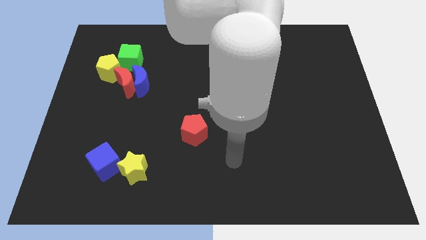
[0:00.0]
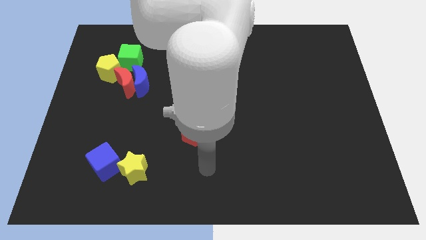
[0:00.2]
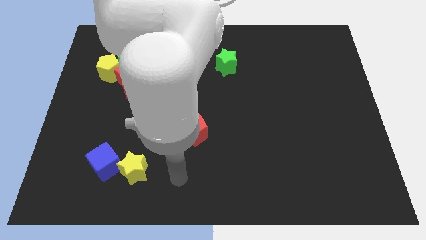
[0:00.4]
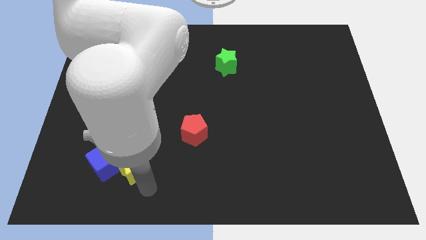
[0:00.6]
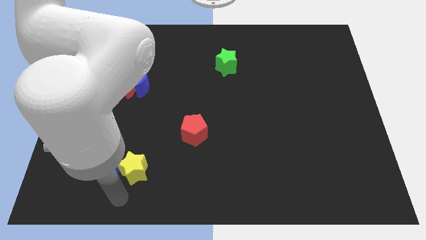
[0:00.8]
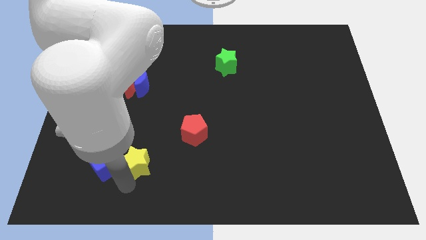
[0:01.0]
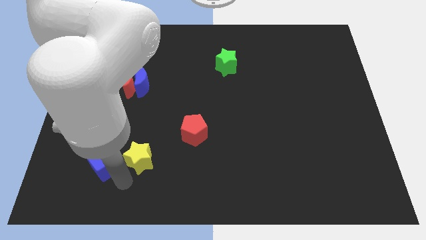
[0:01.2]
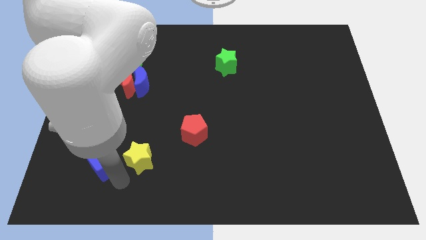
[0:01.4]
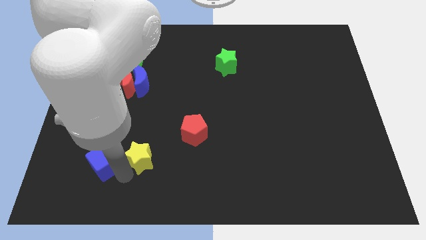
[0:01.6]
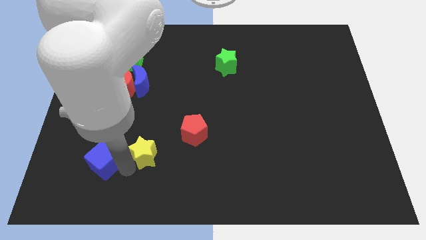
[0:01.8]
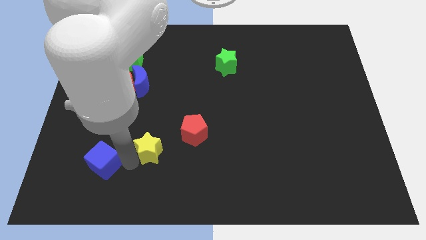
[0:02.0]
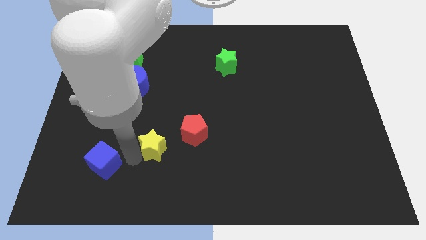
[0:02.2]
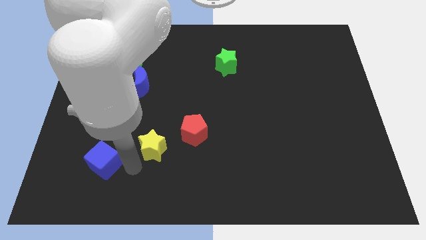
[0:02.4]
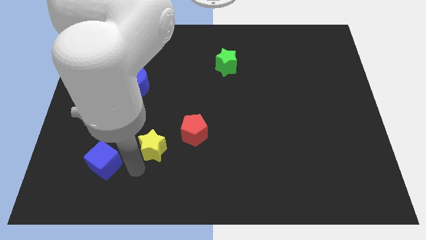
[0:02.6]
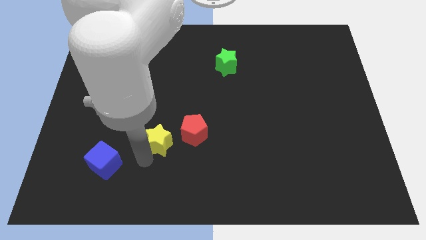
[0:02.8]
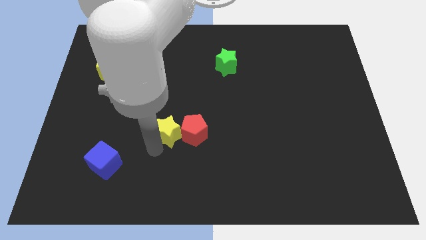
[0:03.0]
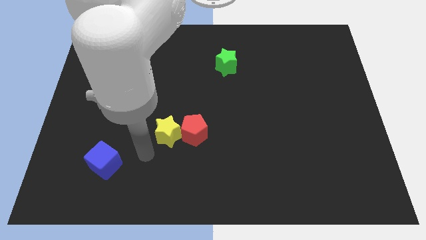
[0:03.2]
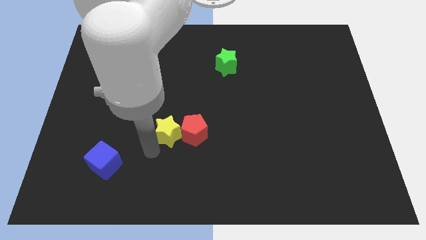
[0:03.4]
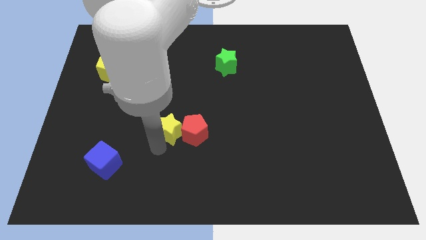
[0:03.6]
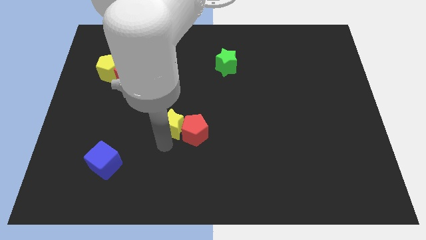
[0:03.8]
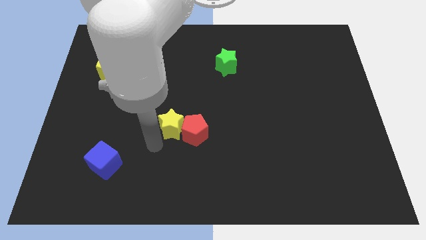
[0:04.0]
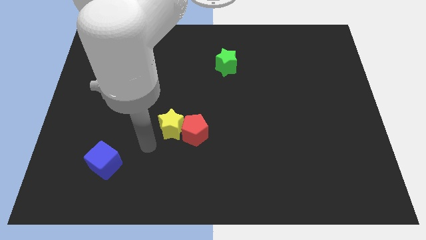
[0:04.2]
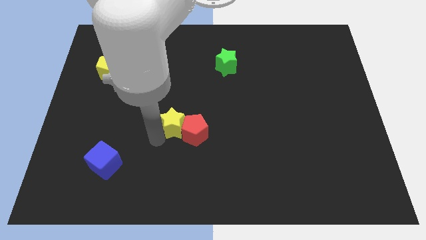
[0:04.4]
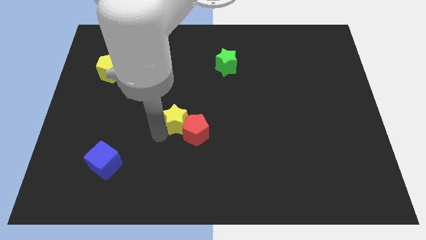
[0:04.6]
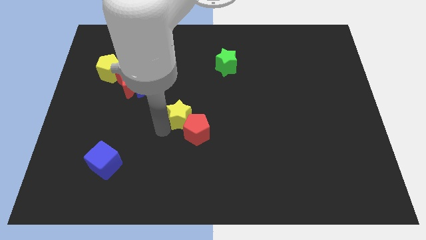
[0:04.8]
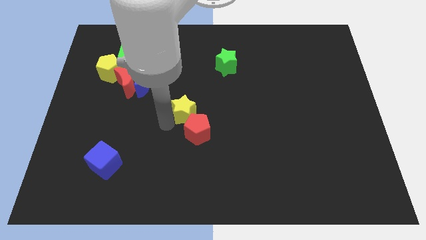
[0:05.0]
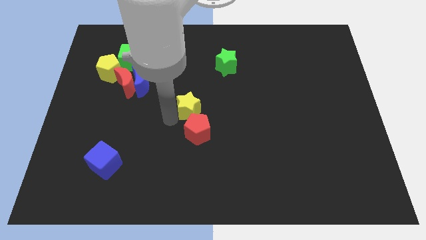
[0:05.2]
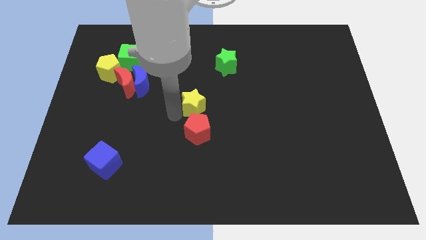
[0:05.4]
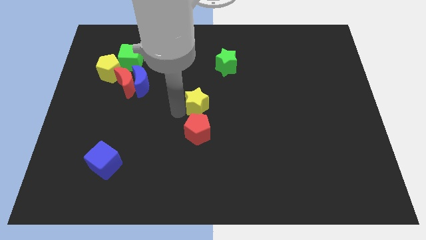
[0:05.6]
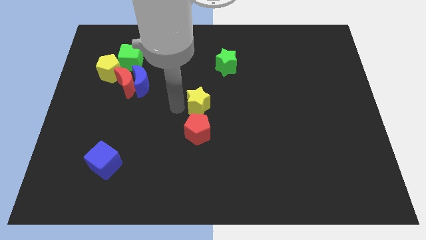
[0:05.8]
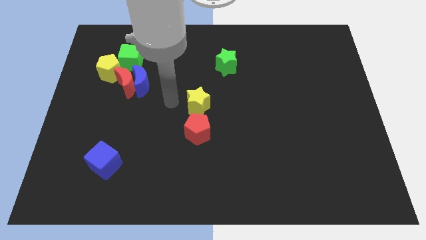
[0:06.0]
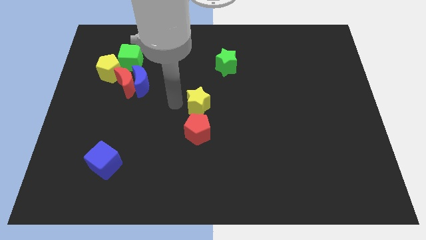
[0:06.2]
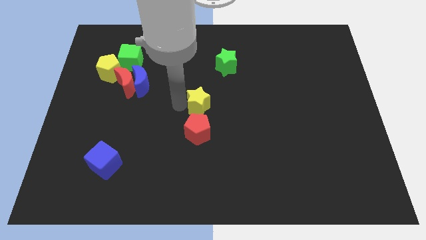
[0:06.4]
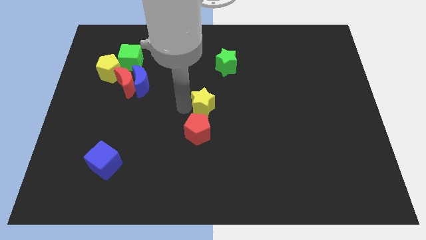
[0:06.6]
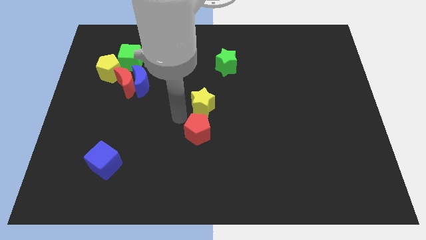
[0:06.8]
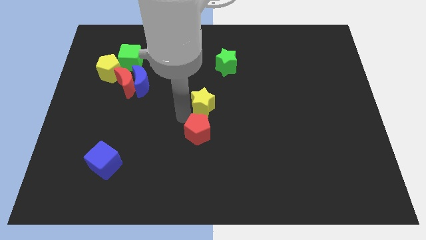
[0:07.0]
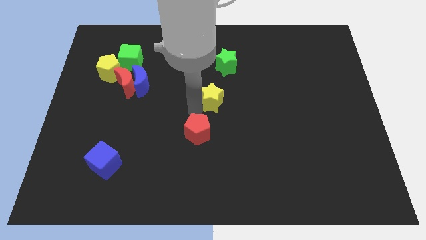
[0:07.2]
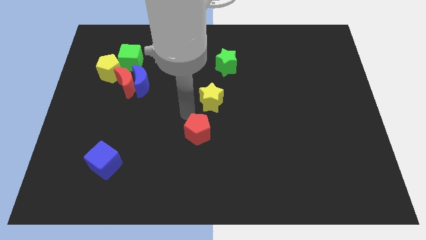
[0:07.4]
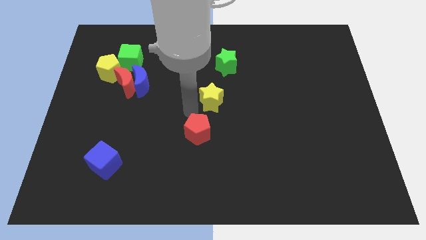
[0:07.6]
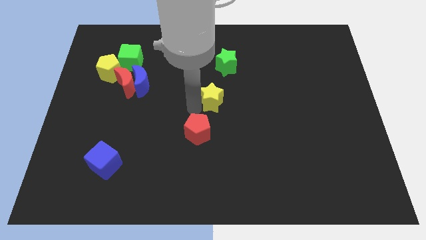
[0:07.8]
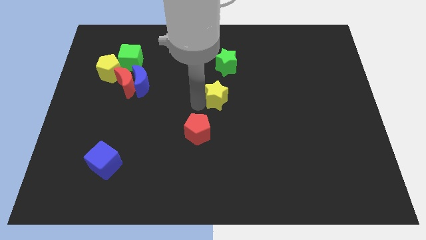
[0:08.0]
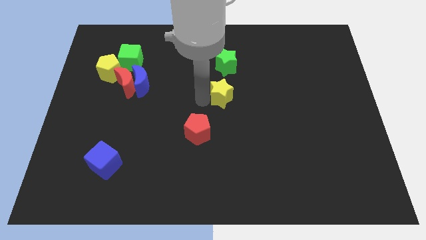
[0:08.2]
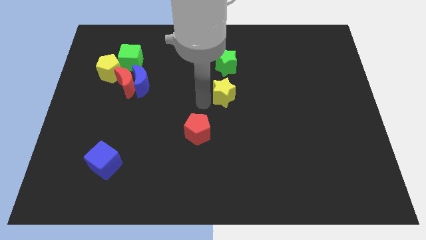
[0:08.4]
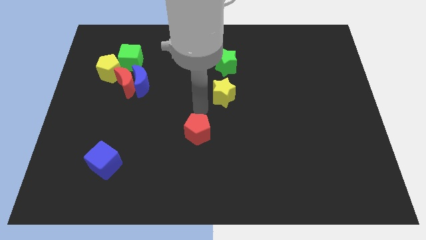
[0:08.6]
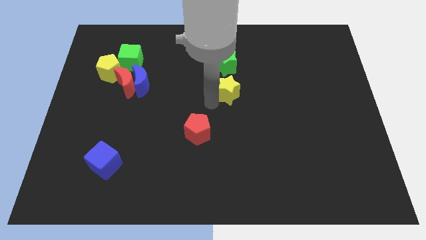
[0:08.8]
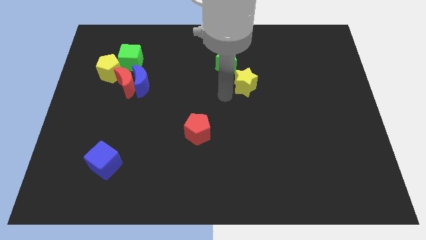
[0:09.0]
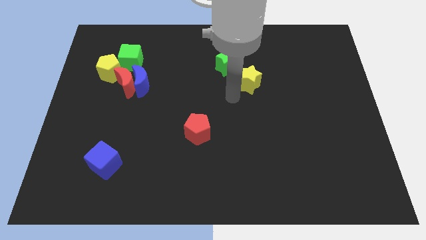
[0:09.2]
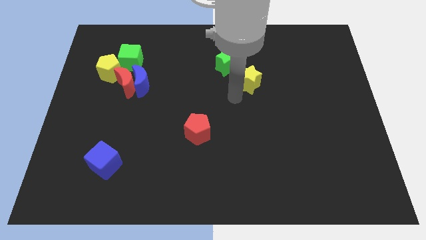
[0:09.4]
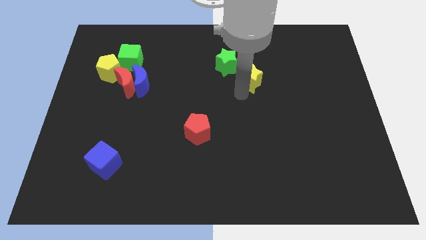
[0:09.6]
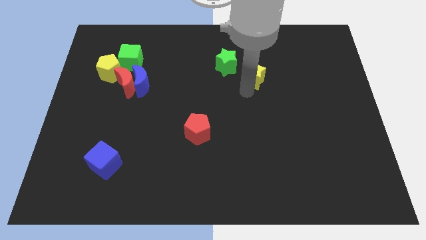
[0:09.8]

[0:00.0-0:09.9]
move the yellow star just right of the green star

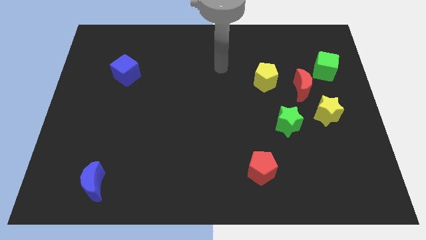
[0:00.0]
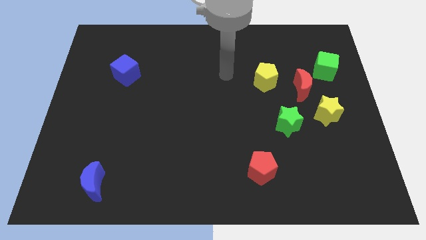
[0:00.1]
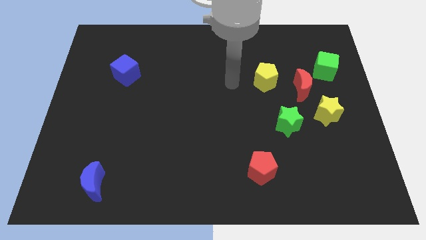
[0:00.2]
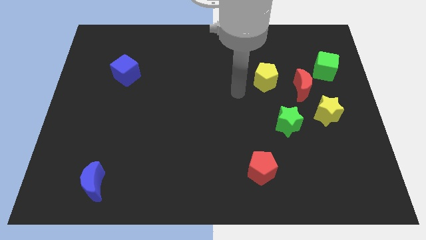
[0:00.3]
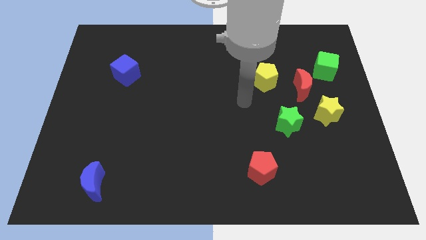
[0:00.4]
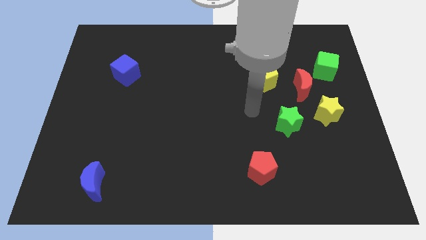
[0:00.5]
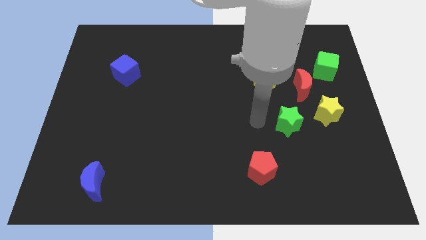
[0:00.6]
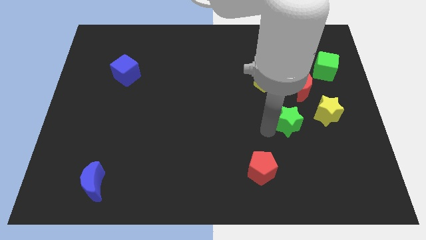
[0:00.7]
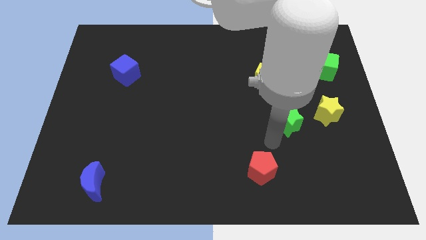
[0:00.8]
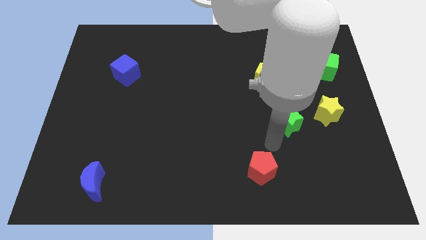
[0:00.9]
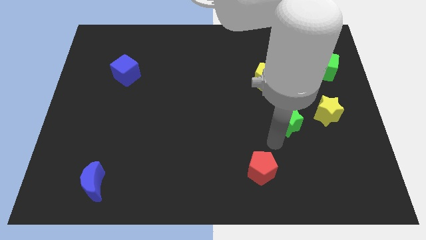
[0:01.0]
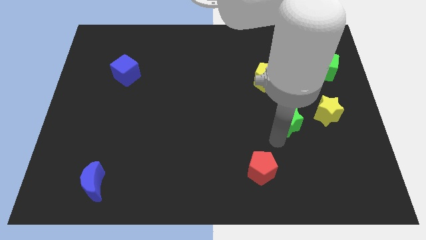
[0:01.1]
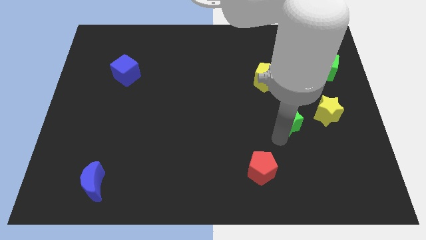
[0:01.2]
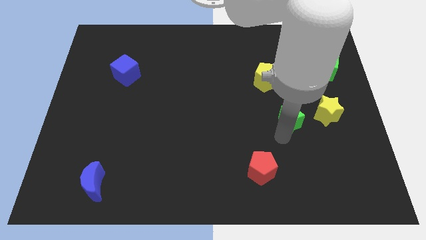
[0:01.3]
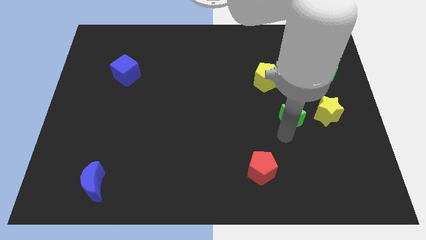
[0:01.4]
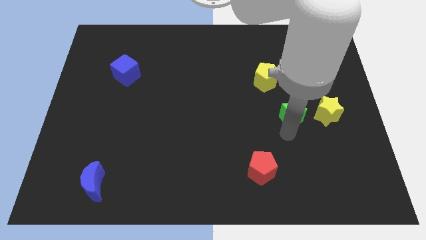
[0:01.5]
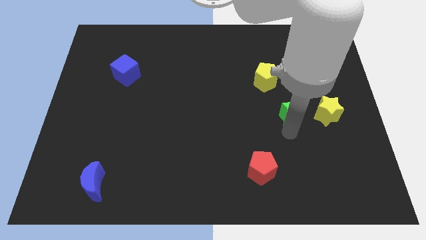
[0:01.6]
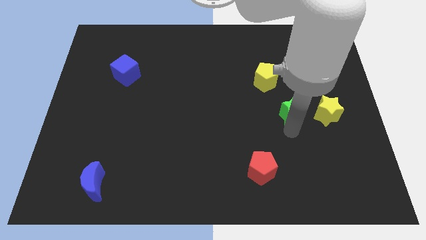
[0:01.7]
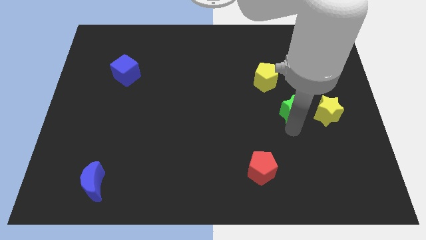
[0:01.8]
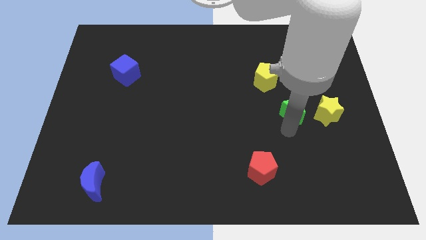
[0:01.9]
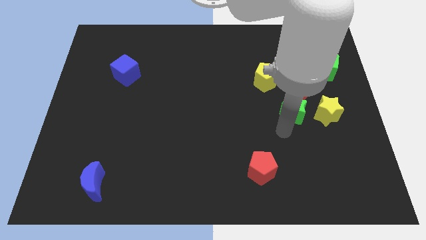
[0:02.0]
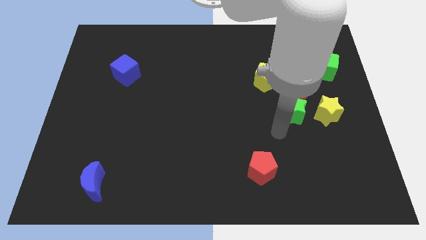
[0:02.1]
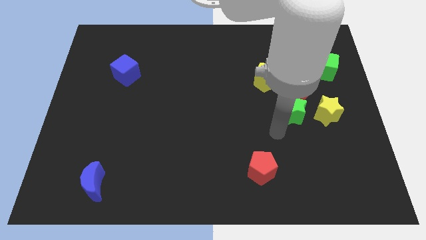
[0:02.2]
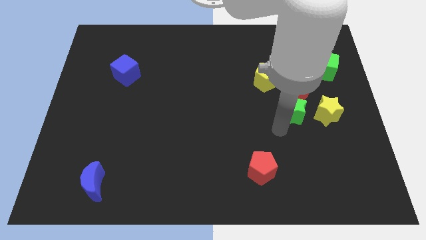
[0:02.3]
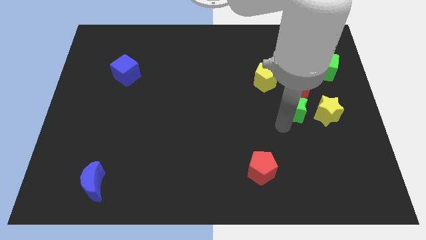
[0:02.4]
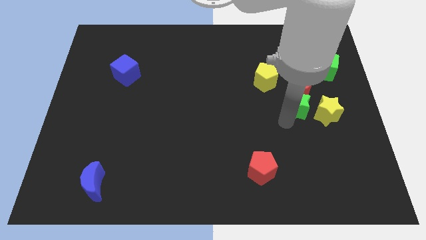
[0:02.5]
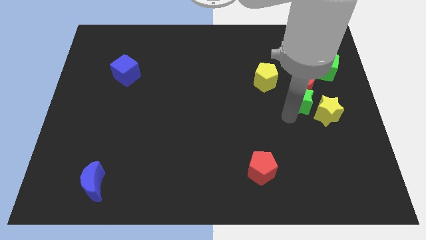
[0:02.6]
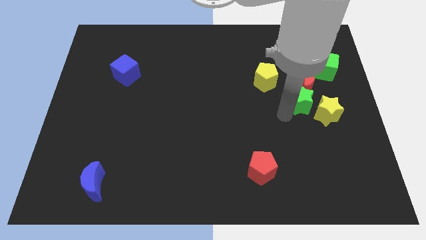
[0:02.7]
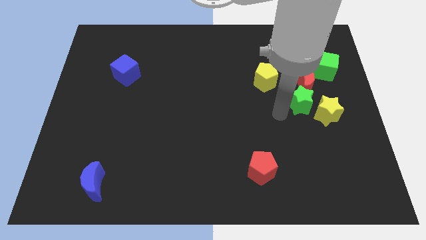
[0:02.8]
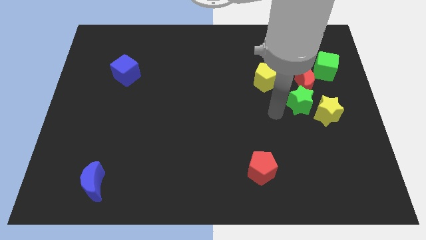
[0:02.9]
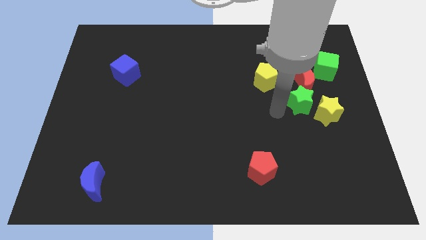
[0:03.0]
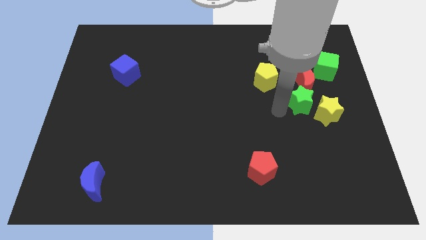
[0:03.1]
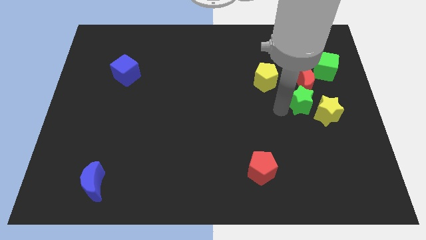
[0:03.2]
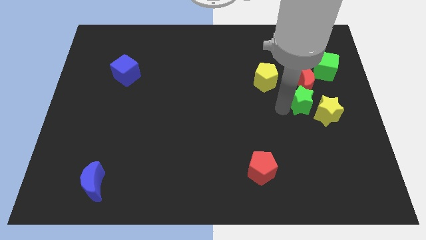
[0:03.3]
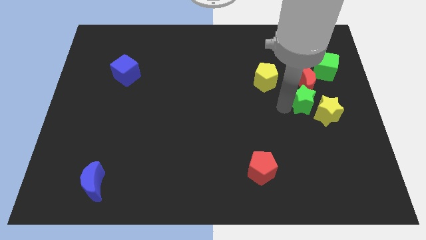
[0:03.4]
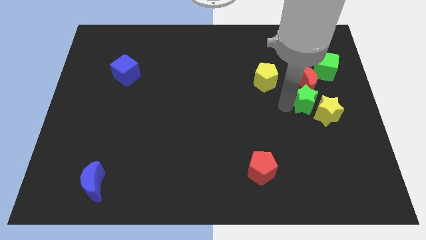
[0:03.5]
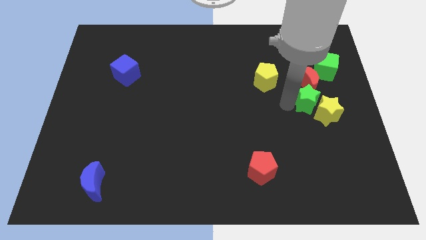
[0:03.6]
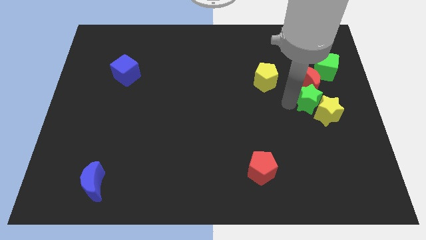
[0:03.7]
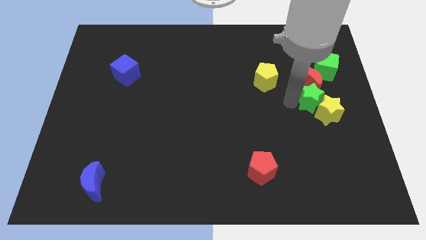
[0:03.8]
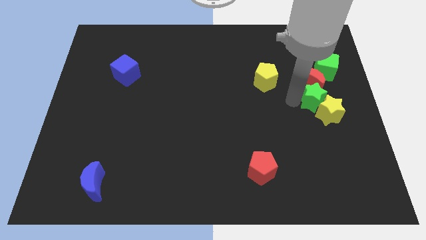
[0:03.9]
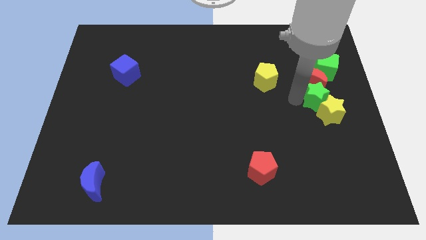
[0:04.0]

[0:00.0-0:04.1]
put the green star below the green cube
